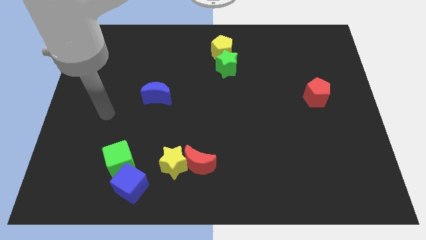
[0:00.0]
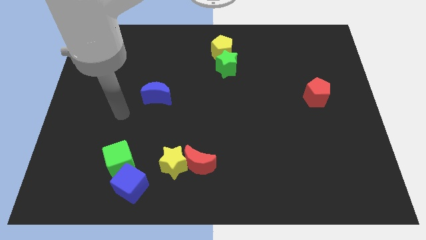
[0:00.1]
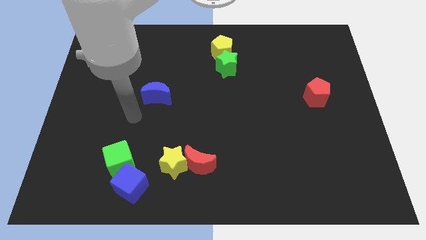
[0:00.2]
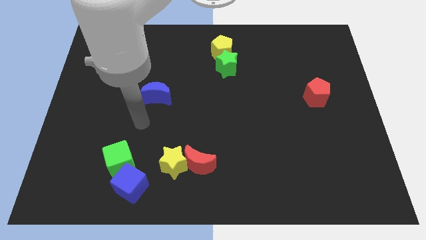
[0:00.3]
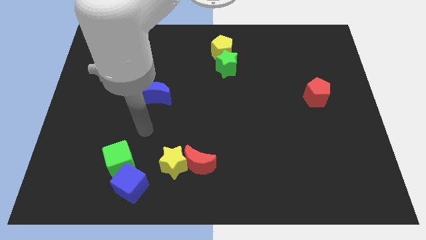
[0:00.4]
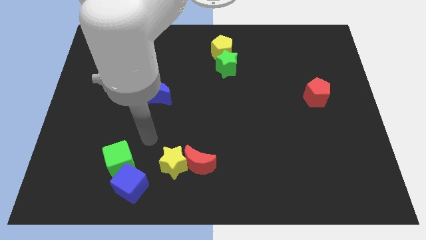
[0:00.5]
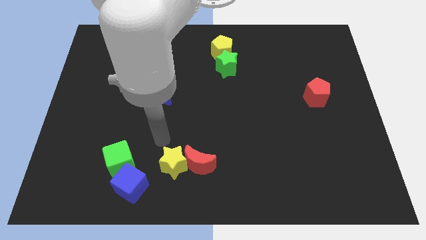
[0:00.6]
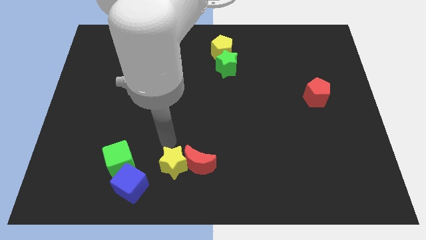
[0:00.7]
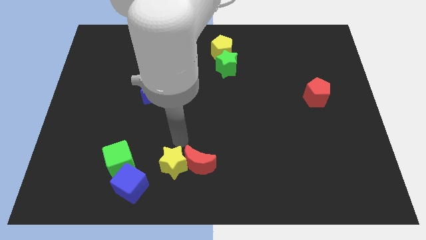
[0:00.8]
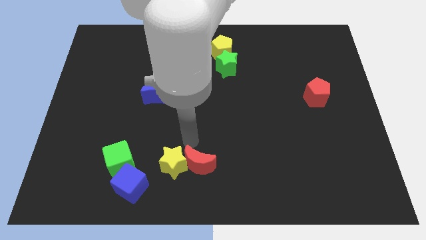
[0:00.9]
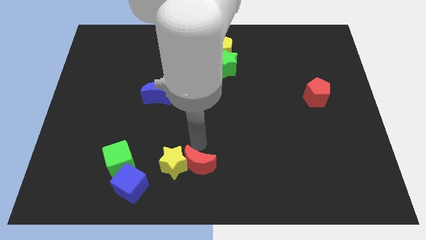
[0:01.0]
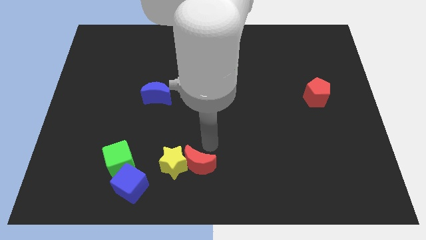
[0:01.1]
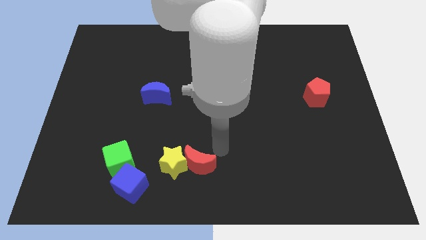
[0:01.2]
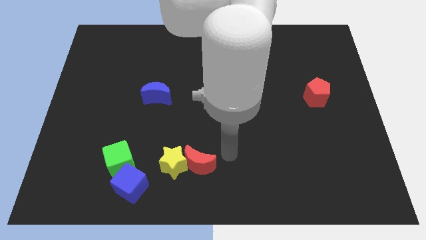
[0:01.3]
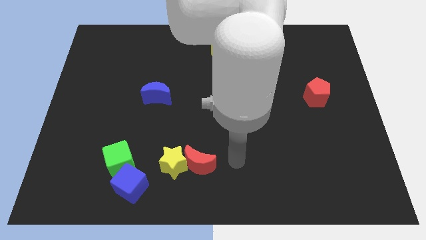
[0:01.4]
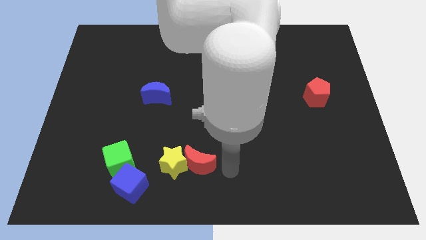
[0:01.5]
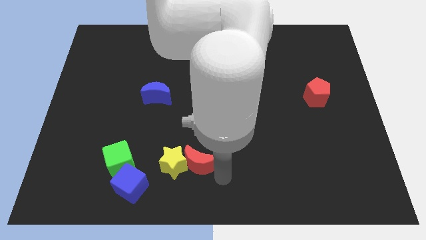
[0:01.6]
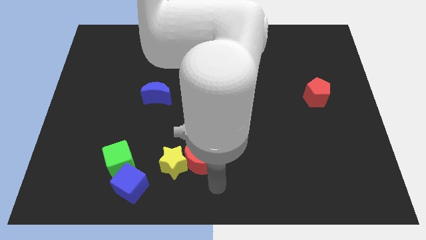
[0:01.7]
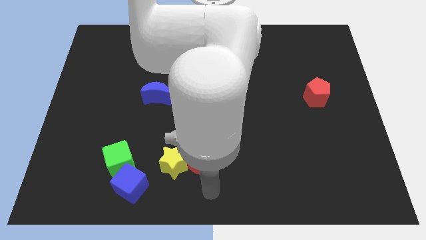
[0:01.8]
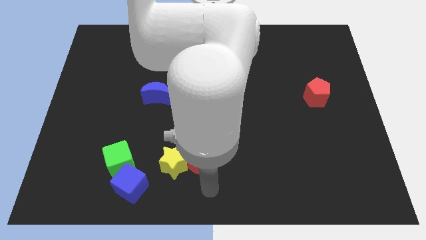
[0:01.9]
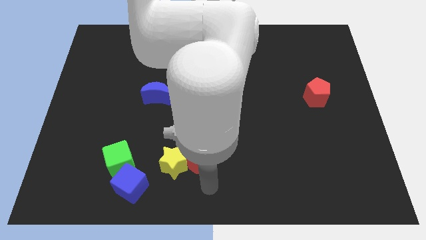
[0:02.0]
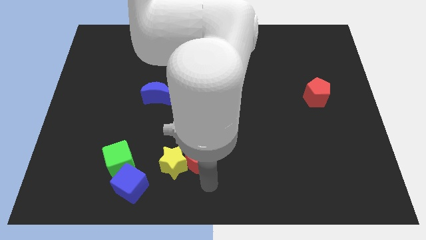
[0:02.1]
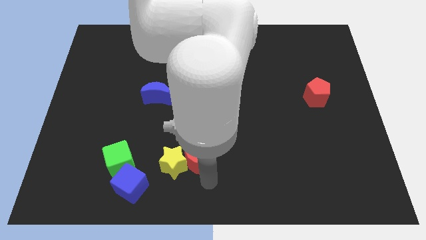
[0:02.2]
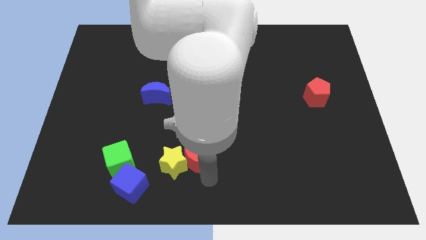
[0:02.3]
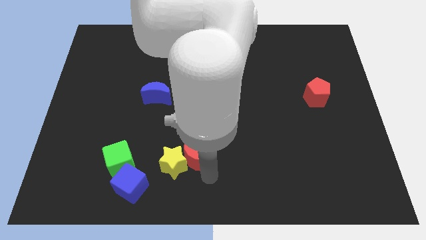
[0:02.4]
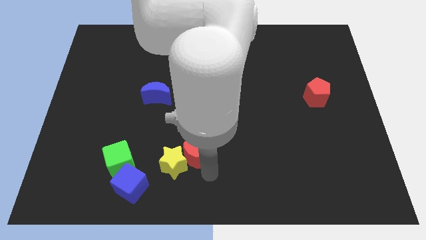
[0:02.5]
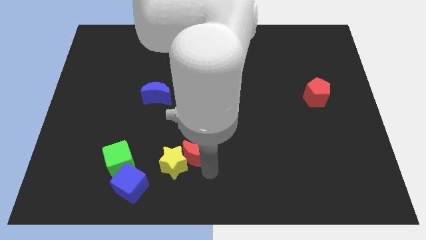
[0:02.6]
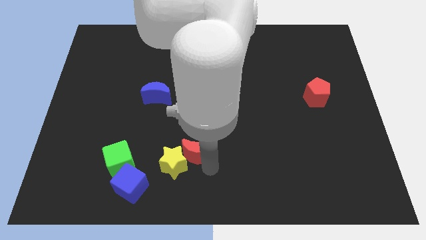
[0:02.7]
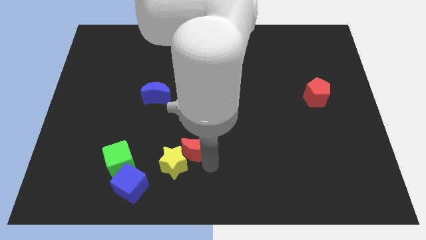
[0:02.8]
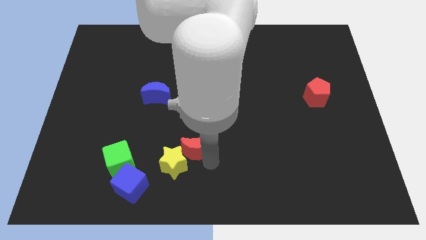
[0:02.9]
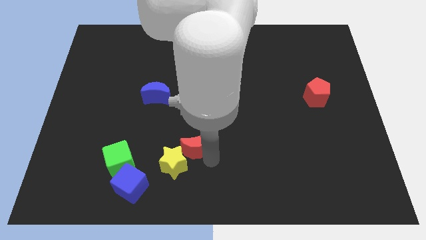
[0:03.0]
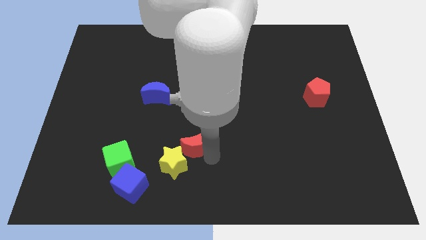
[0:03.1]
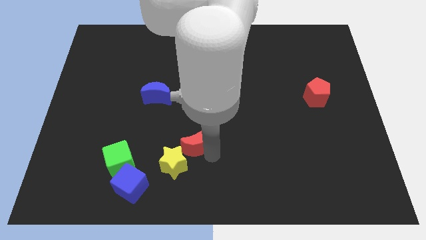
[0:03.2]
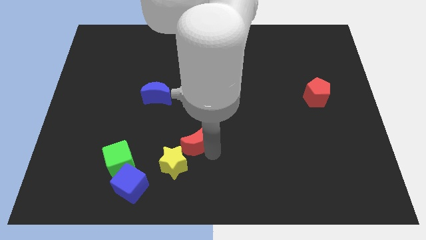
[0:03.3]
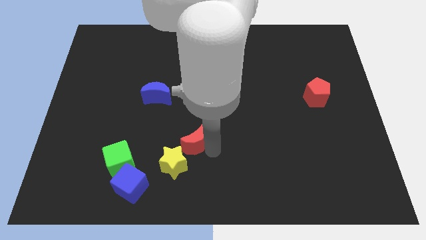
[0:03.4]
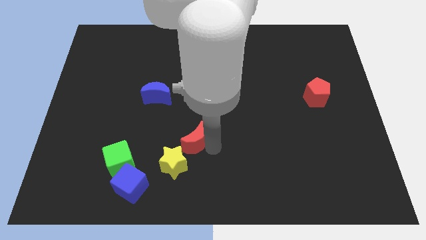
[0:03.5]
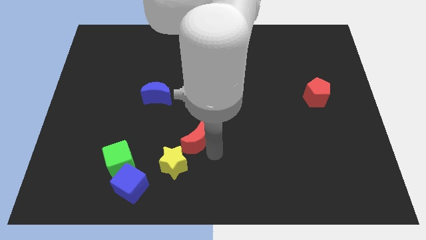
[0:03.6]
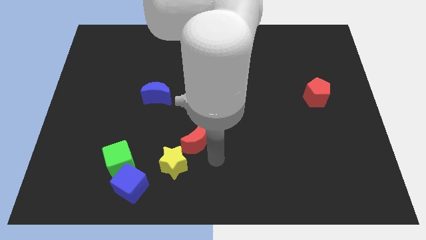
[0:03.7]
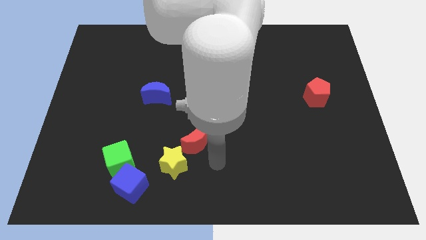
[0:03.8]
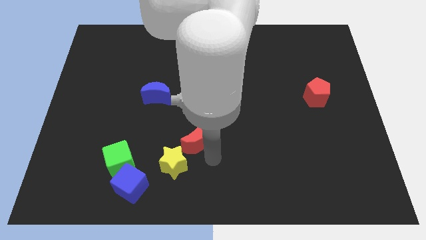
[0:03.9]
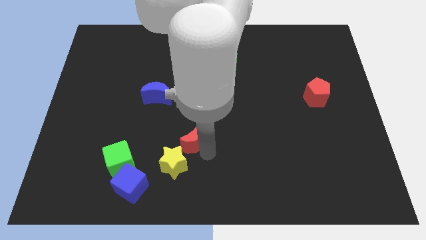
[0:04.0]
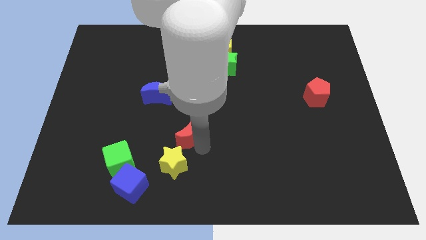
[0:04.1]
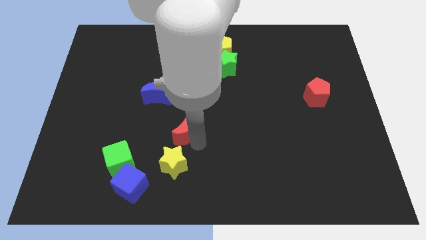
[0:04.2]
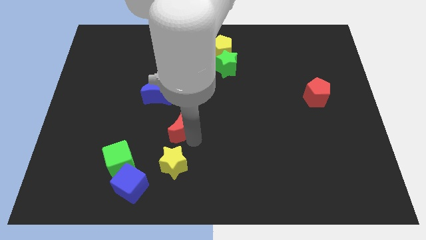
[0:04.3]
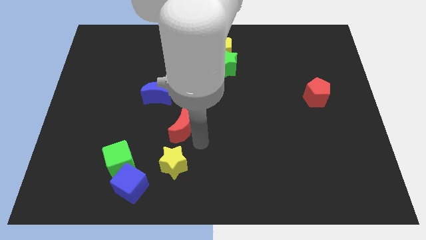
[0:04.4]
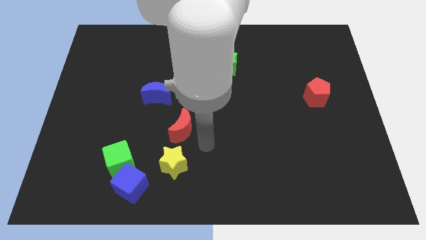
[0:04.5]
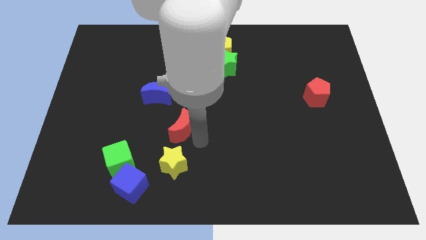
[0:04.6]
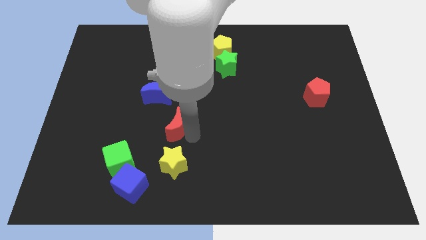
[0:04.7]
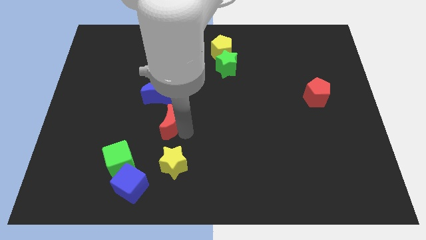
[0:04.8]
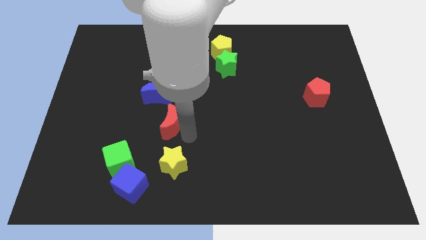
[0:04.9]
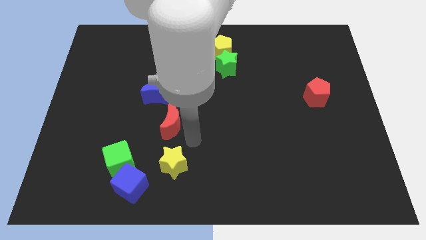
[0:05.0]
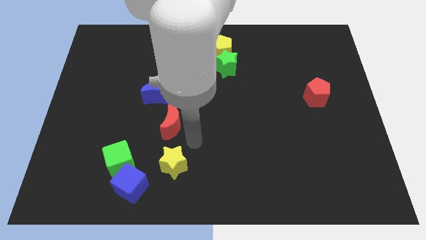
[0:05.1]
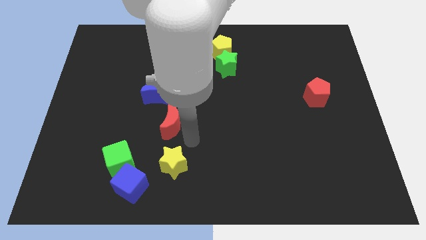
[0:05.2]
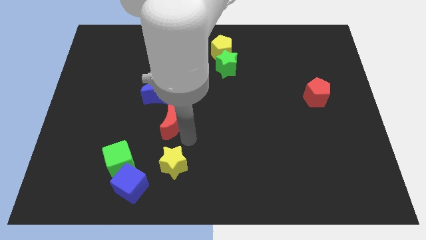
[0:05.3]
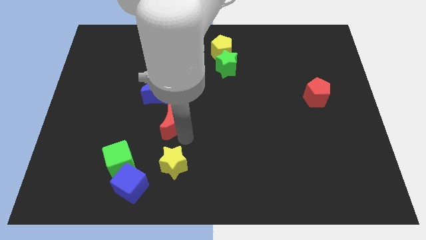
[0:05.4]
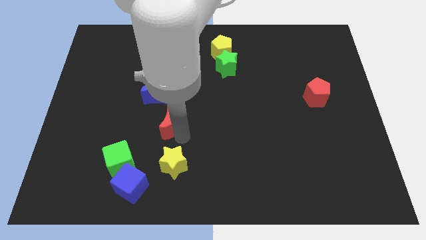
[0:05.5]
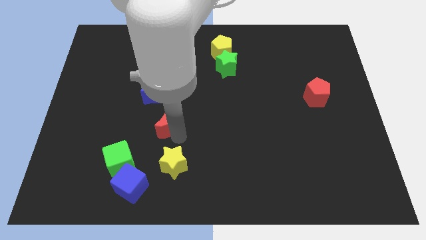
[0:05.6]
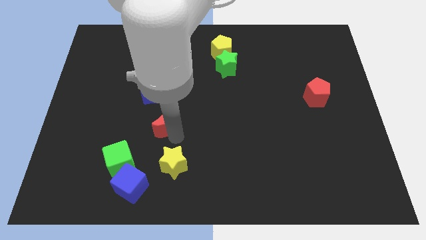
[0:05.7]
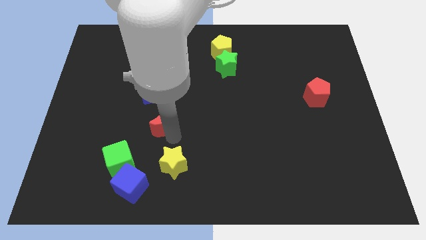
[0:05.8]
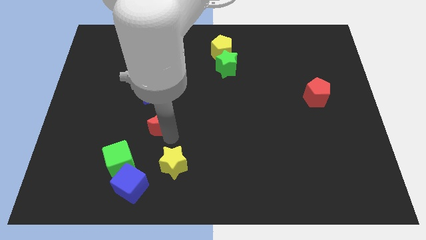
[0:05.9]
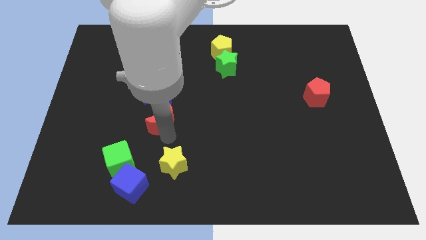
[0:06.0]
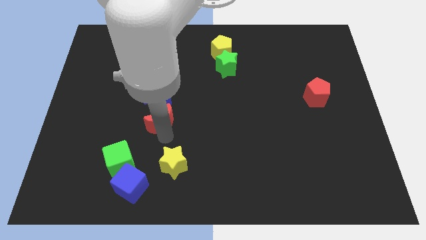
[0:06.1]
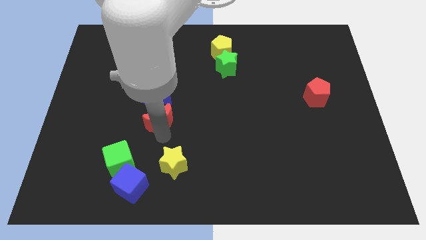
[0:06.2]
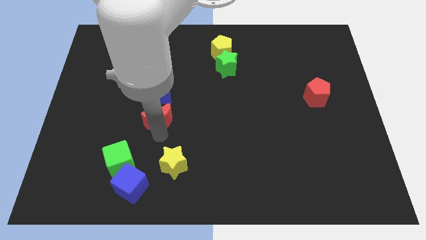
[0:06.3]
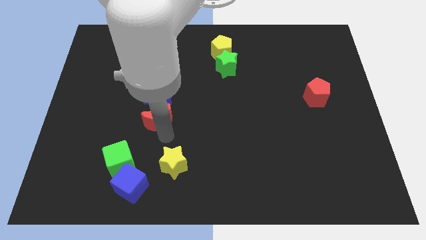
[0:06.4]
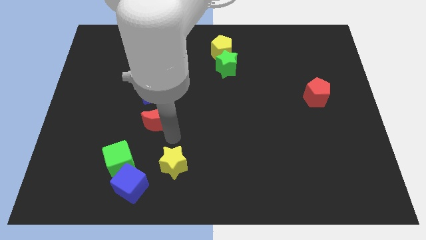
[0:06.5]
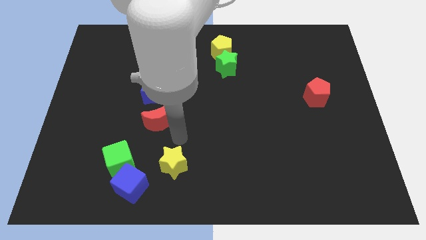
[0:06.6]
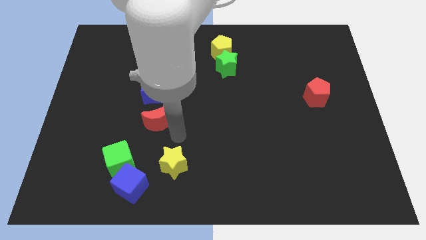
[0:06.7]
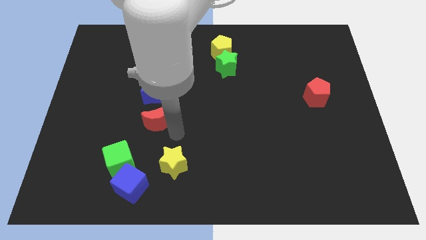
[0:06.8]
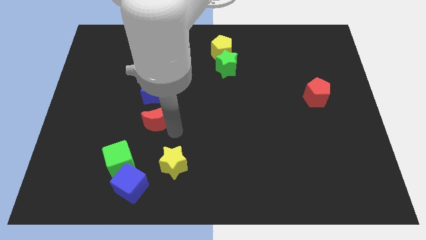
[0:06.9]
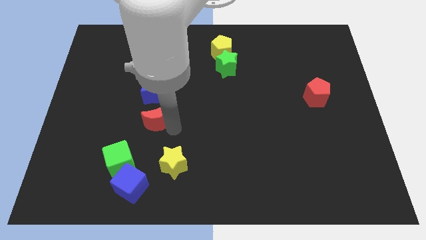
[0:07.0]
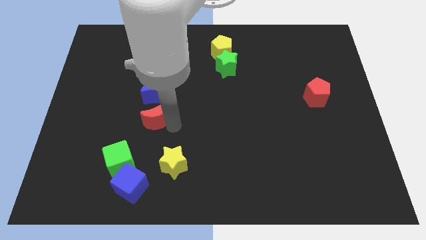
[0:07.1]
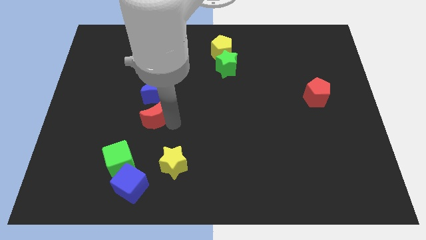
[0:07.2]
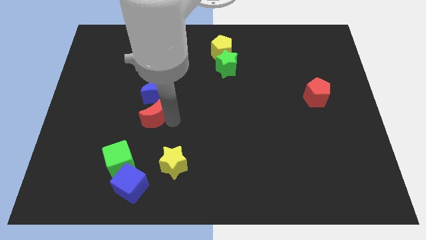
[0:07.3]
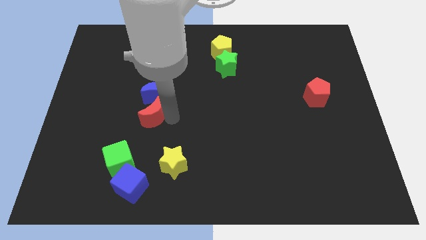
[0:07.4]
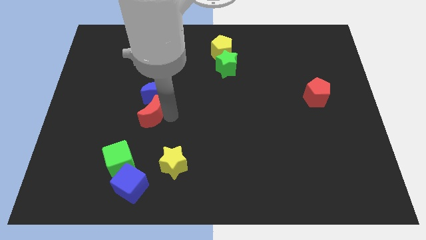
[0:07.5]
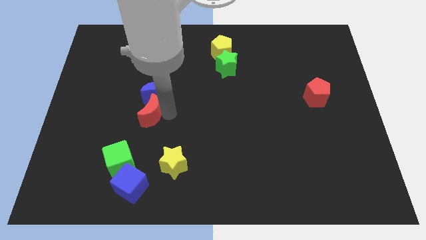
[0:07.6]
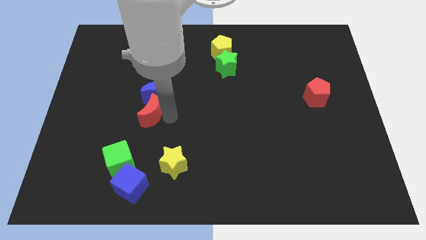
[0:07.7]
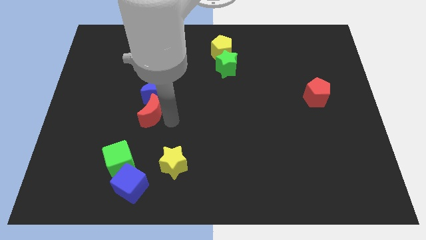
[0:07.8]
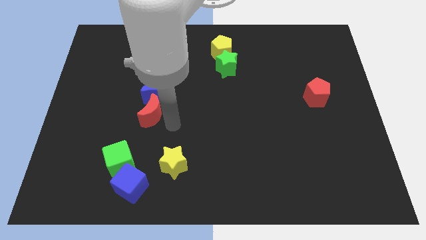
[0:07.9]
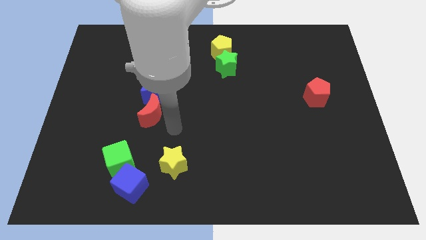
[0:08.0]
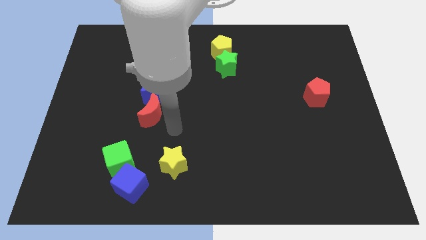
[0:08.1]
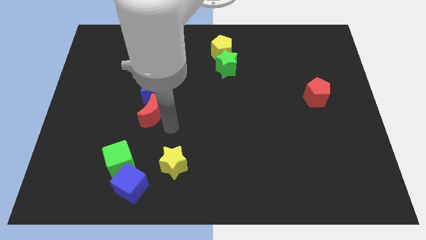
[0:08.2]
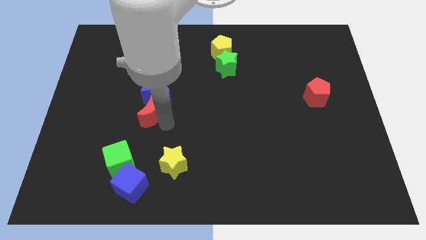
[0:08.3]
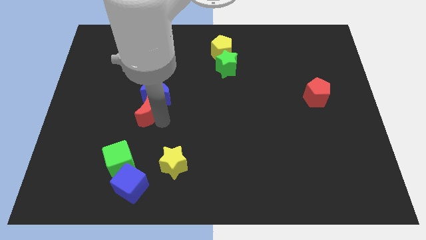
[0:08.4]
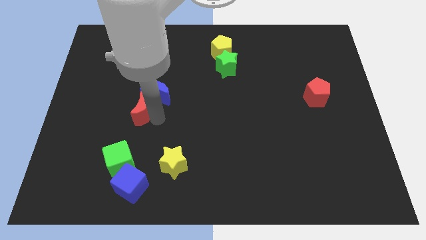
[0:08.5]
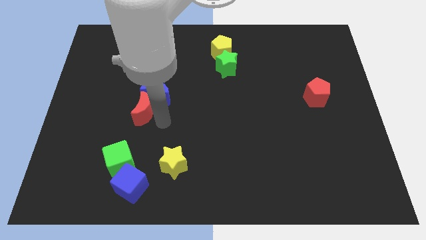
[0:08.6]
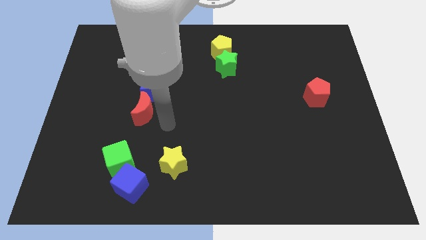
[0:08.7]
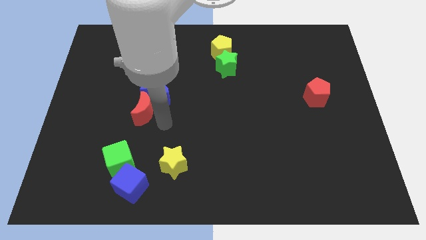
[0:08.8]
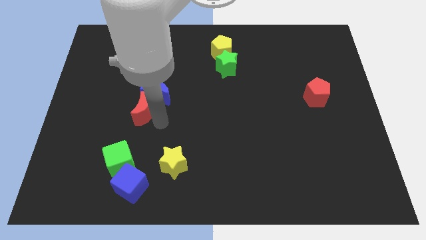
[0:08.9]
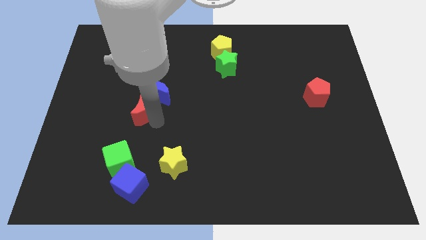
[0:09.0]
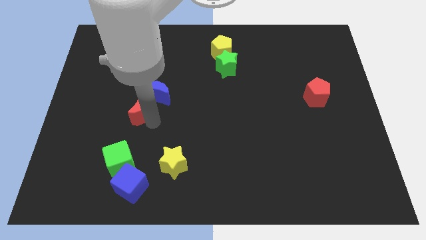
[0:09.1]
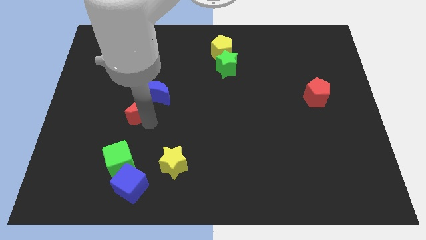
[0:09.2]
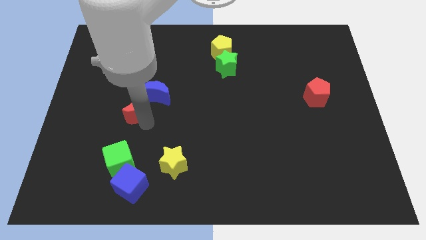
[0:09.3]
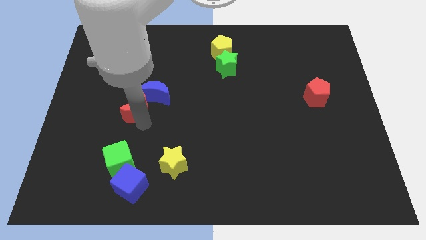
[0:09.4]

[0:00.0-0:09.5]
slide the red moon left of the blue moon
